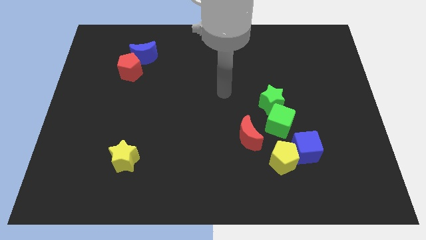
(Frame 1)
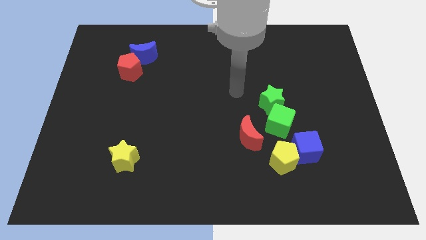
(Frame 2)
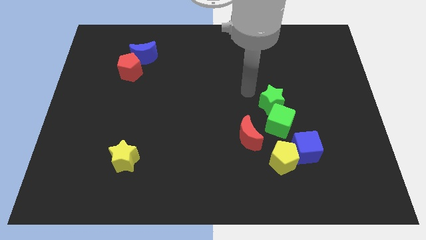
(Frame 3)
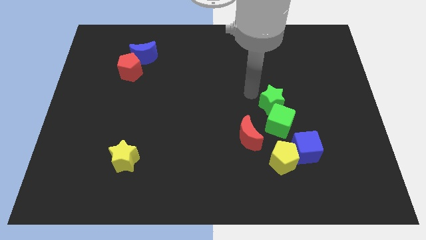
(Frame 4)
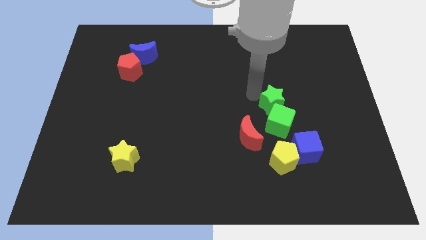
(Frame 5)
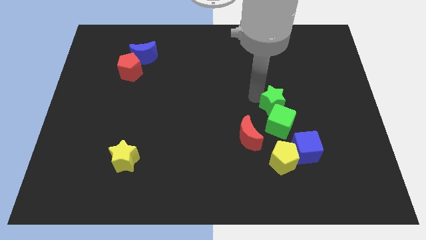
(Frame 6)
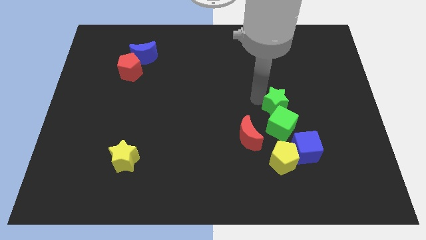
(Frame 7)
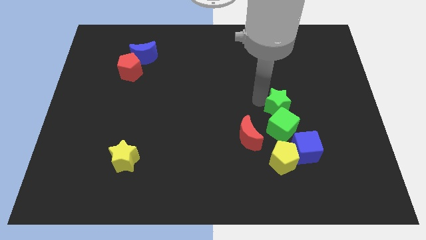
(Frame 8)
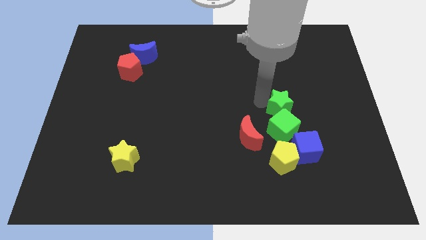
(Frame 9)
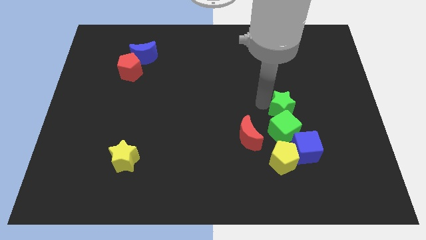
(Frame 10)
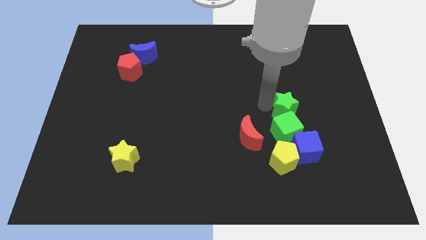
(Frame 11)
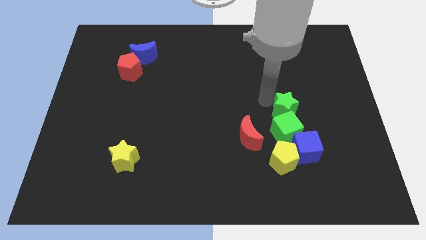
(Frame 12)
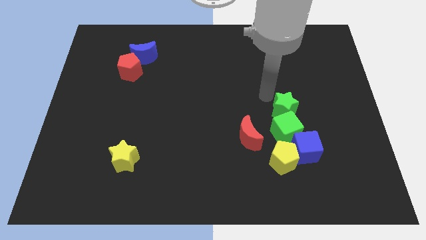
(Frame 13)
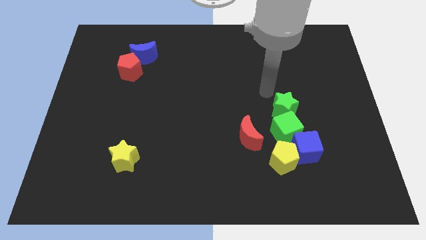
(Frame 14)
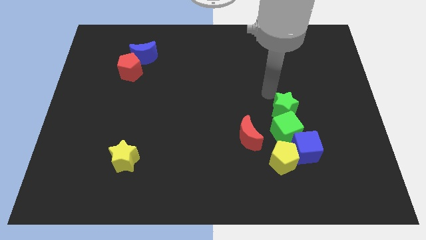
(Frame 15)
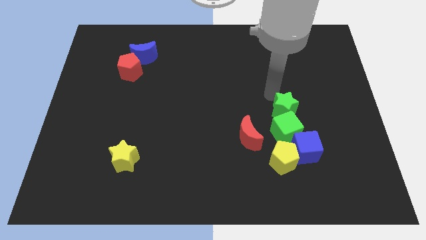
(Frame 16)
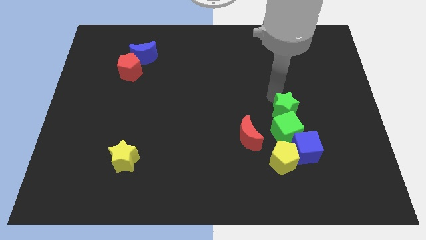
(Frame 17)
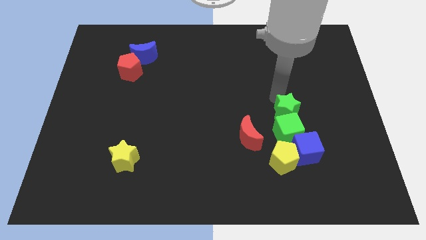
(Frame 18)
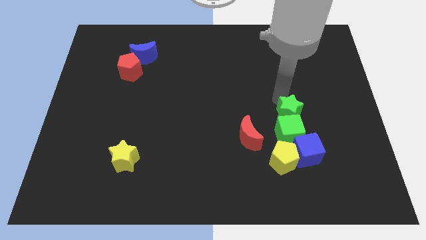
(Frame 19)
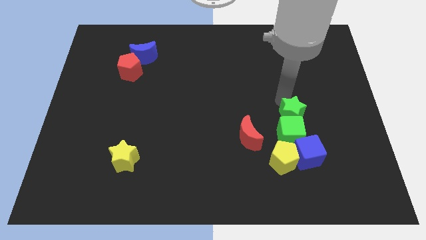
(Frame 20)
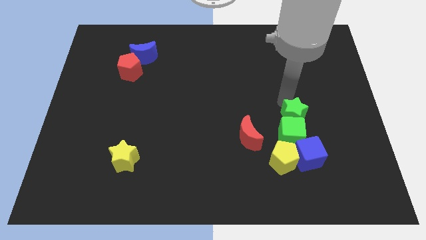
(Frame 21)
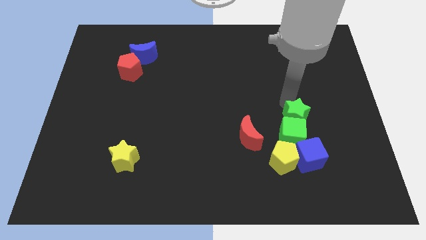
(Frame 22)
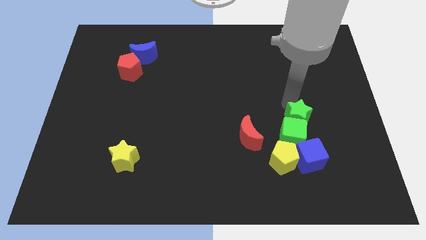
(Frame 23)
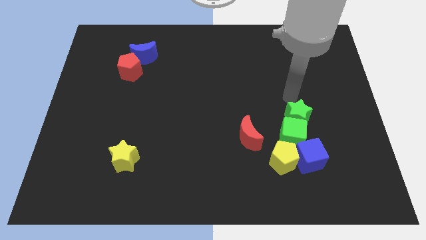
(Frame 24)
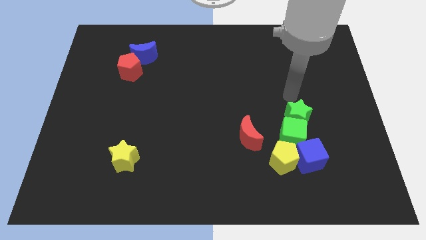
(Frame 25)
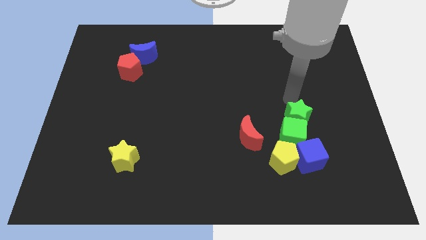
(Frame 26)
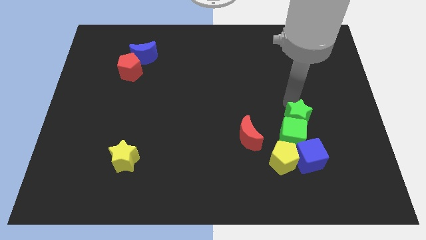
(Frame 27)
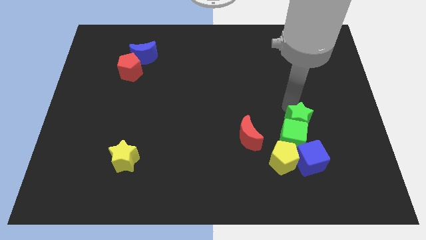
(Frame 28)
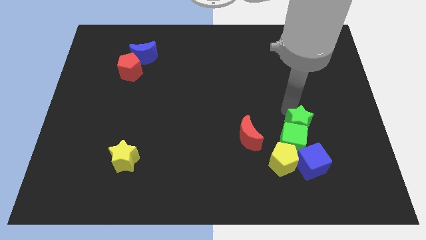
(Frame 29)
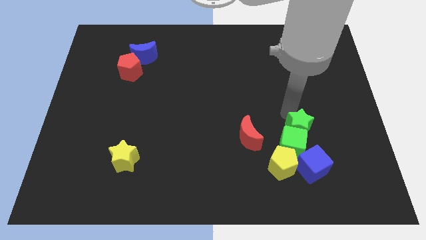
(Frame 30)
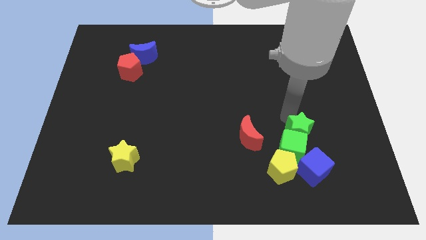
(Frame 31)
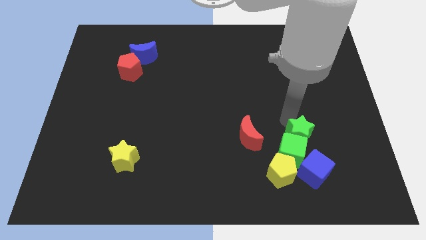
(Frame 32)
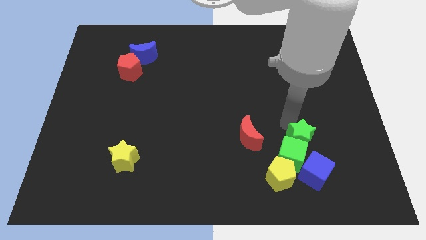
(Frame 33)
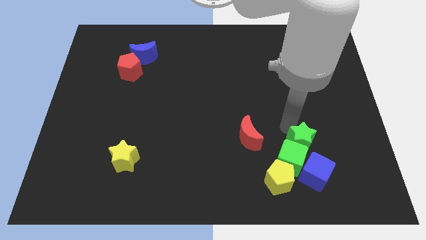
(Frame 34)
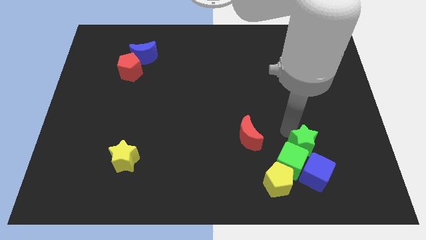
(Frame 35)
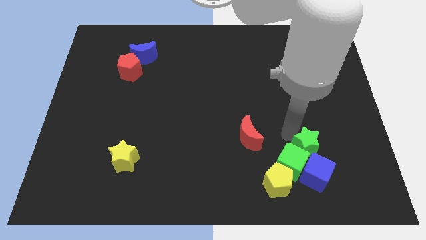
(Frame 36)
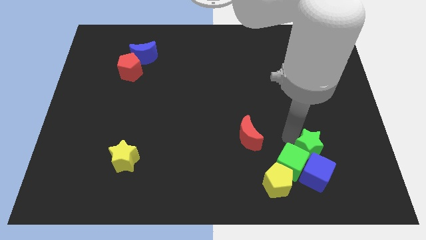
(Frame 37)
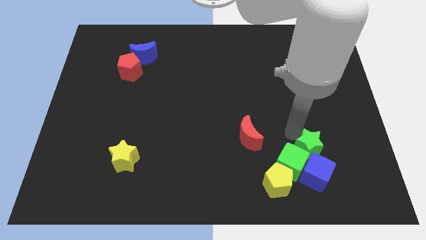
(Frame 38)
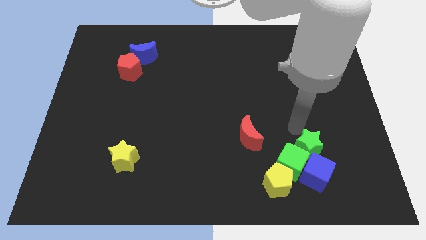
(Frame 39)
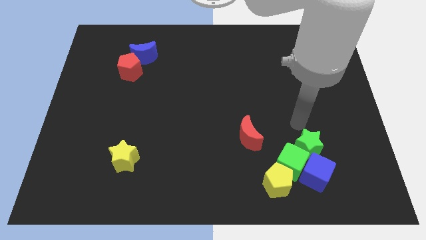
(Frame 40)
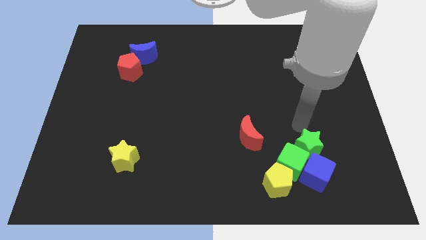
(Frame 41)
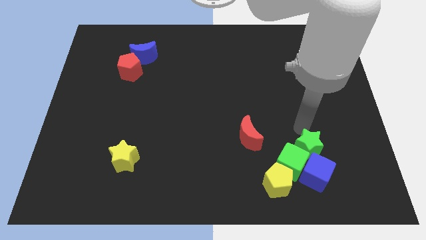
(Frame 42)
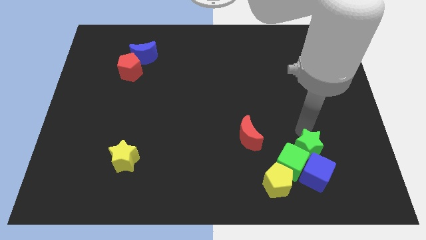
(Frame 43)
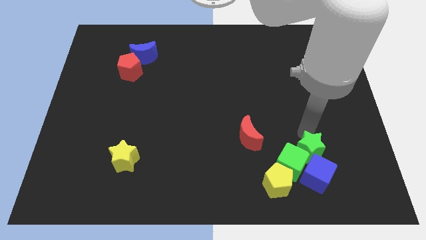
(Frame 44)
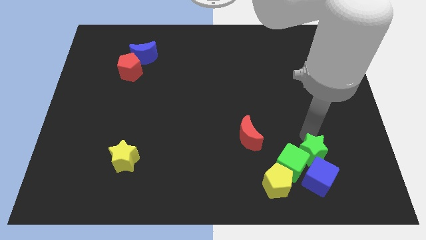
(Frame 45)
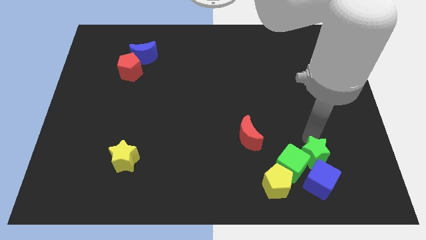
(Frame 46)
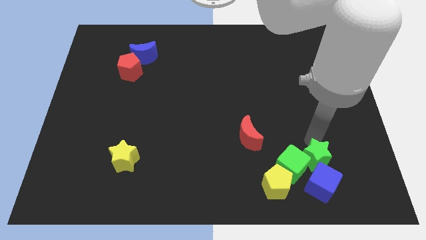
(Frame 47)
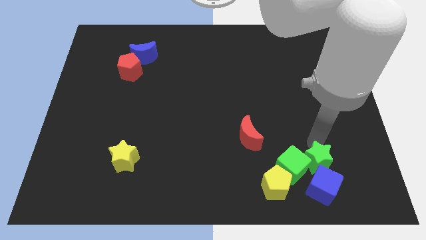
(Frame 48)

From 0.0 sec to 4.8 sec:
put the green star to the blue cube

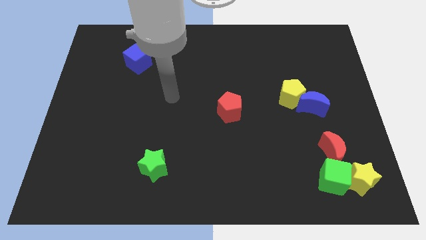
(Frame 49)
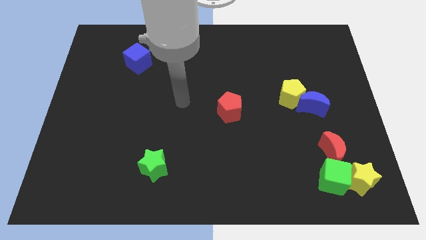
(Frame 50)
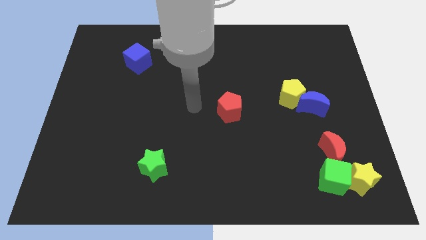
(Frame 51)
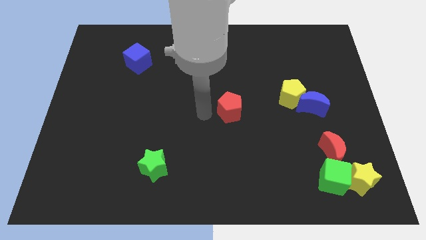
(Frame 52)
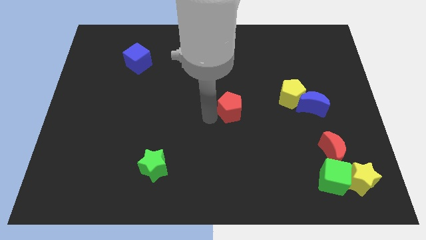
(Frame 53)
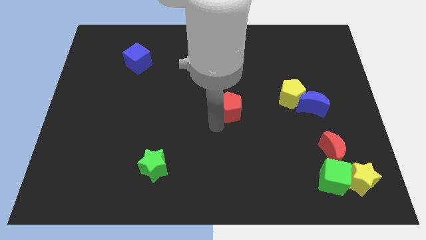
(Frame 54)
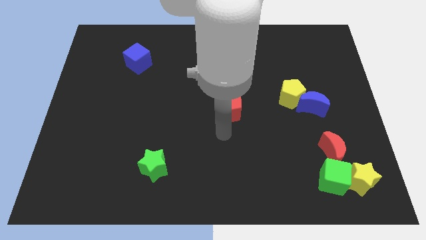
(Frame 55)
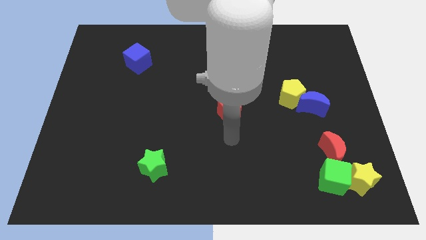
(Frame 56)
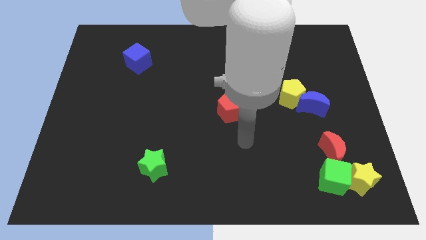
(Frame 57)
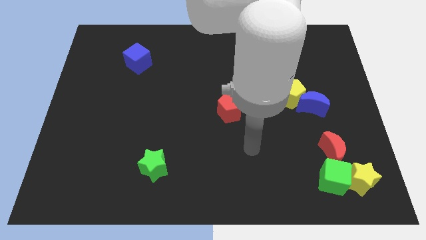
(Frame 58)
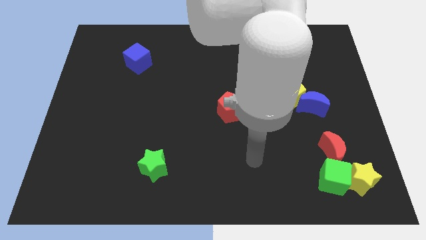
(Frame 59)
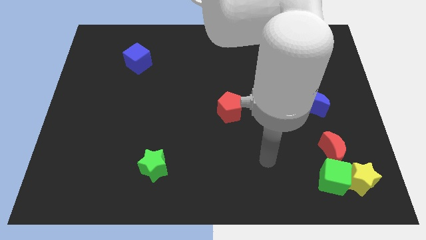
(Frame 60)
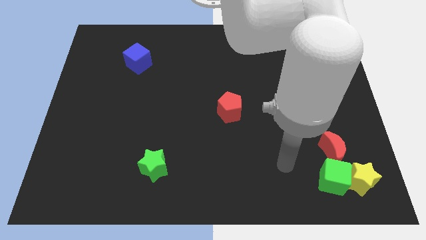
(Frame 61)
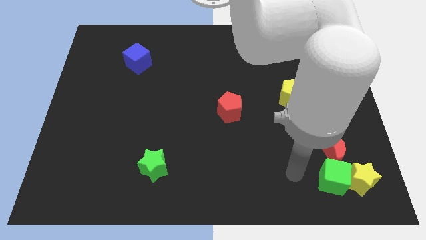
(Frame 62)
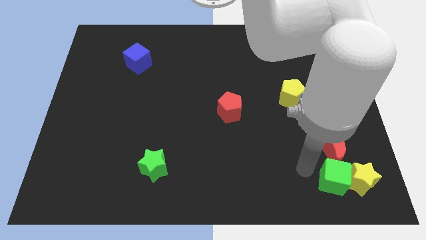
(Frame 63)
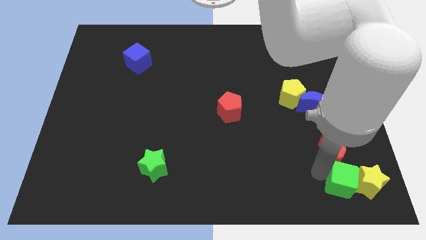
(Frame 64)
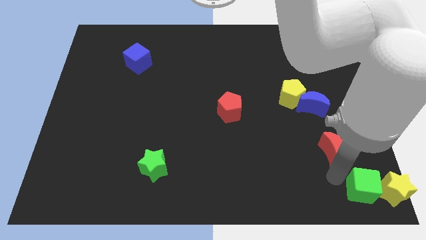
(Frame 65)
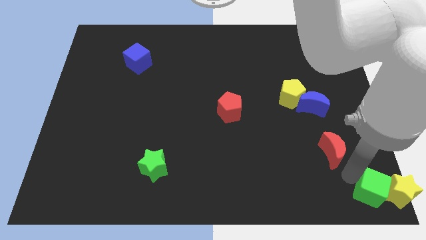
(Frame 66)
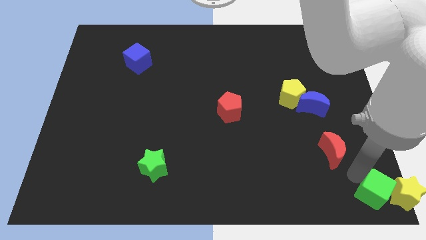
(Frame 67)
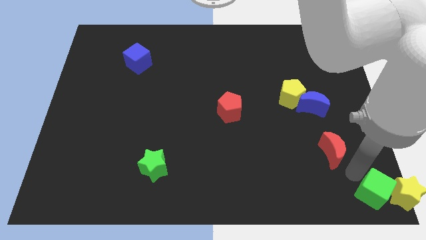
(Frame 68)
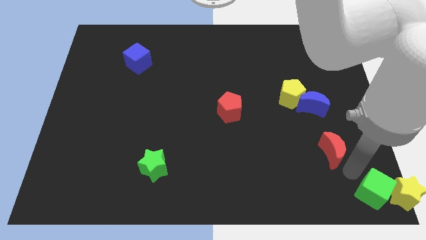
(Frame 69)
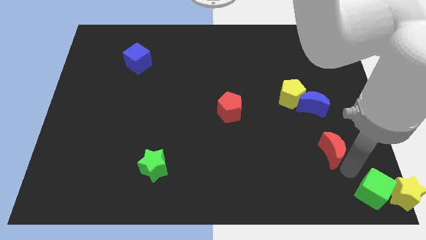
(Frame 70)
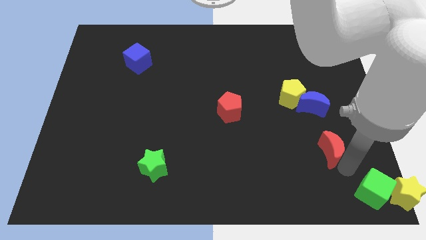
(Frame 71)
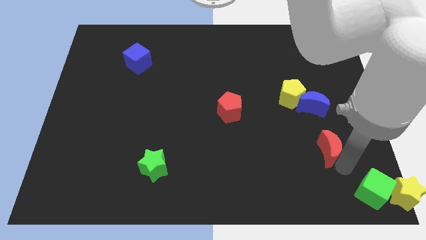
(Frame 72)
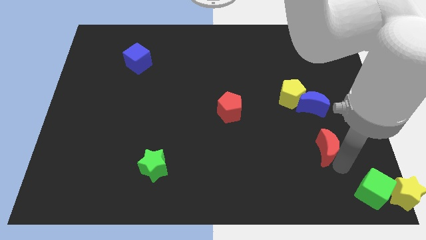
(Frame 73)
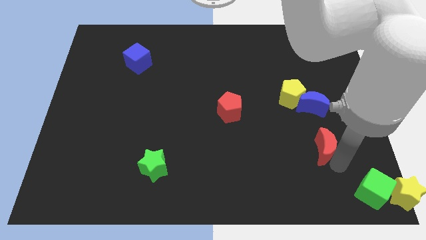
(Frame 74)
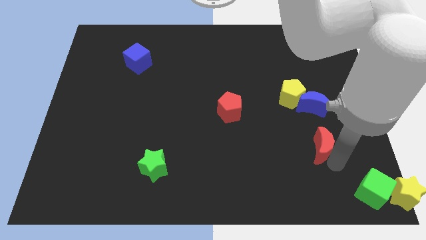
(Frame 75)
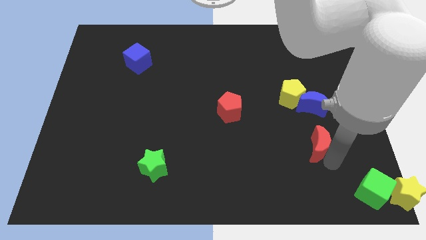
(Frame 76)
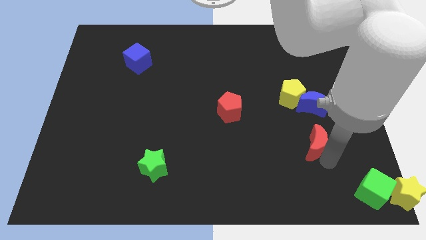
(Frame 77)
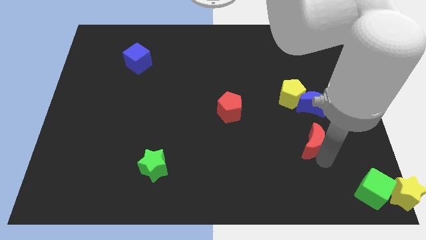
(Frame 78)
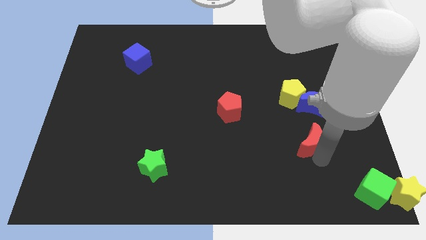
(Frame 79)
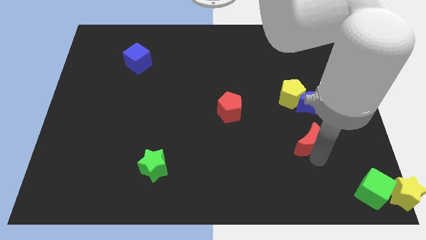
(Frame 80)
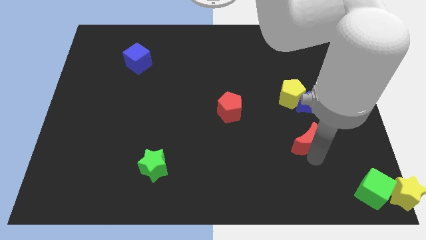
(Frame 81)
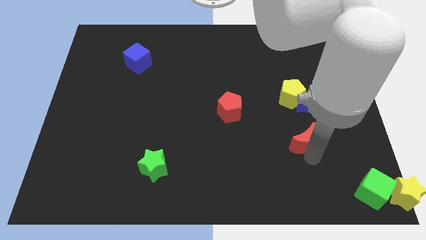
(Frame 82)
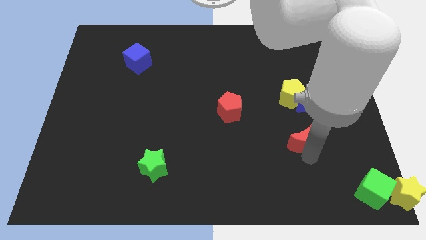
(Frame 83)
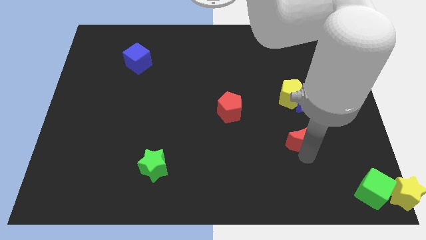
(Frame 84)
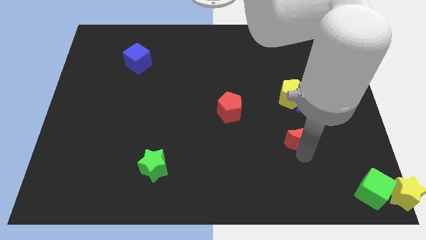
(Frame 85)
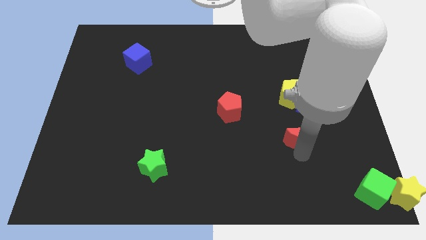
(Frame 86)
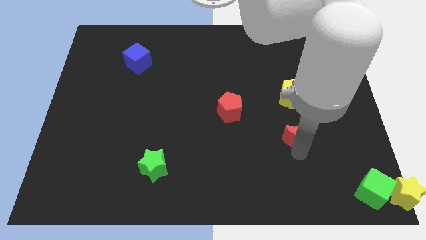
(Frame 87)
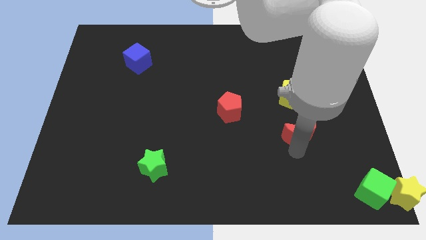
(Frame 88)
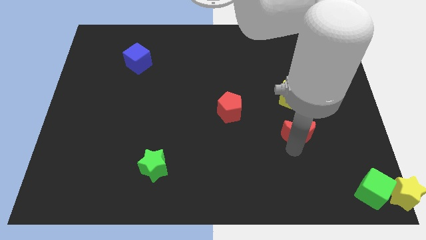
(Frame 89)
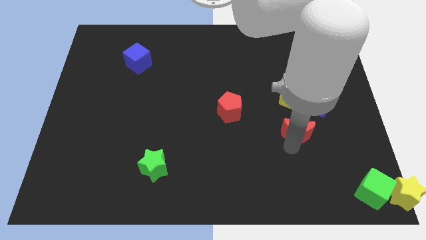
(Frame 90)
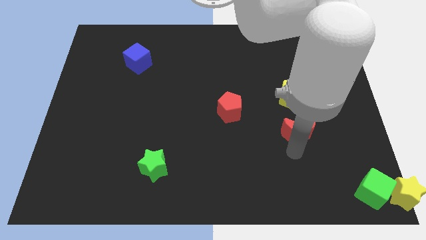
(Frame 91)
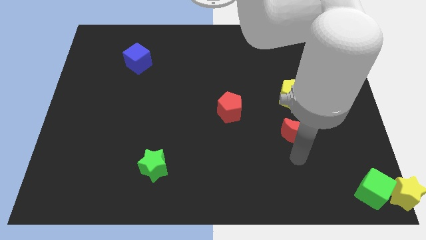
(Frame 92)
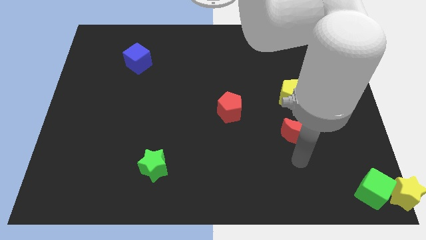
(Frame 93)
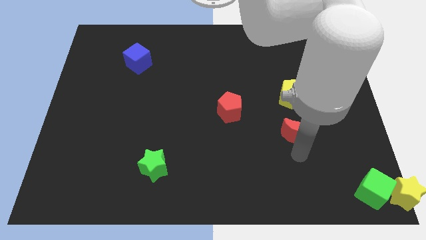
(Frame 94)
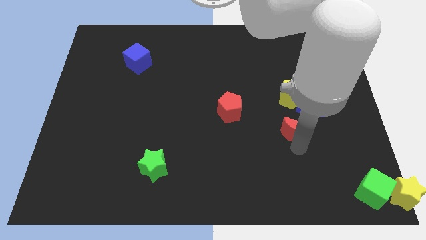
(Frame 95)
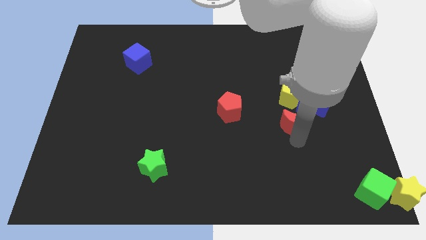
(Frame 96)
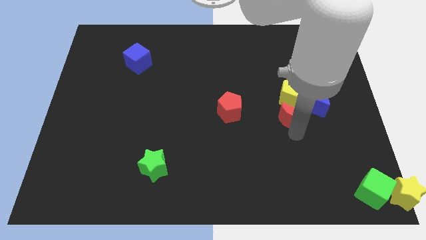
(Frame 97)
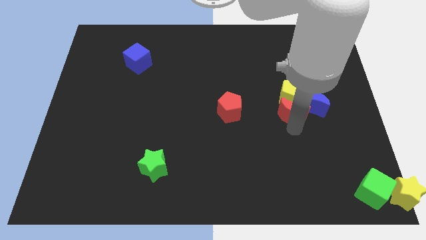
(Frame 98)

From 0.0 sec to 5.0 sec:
move the red moon close to the yellow pentagon
